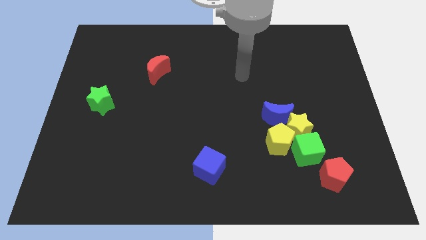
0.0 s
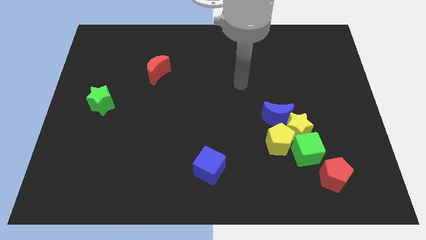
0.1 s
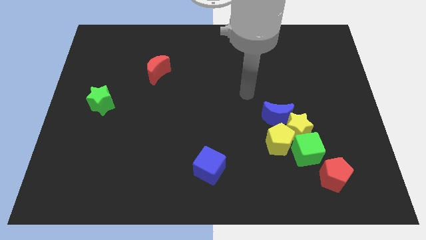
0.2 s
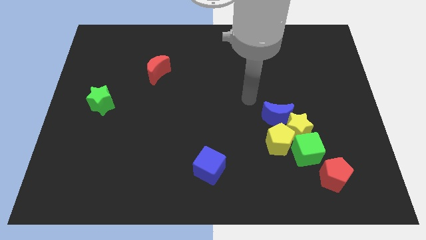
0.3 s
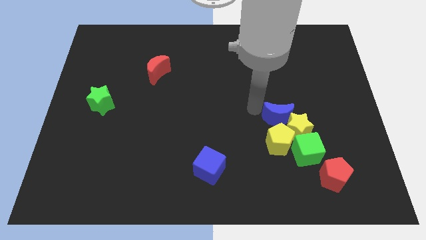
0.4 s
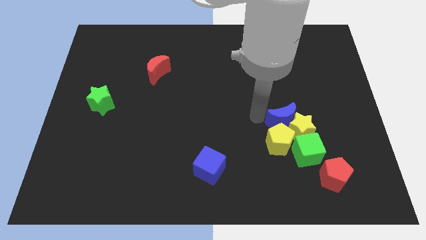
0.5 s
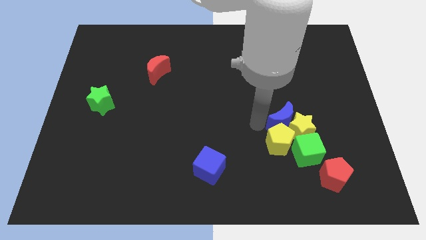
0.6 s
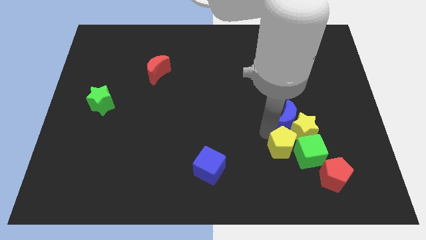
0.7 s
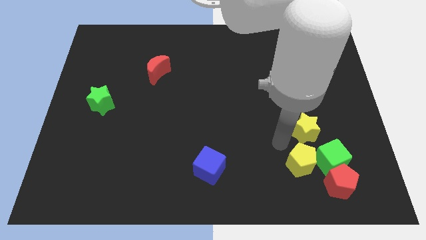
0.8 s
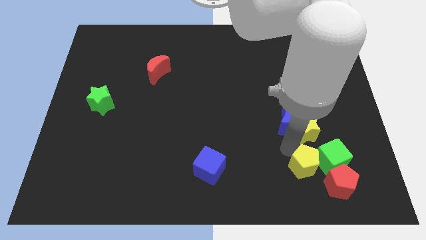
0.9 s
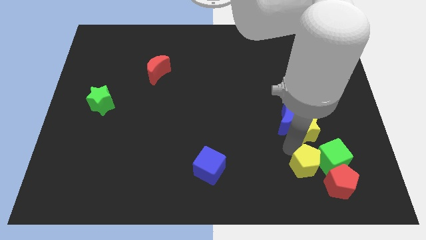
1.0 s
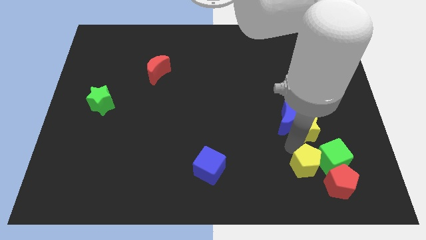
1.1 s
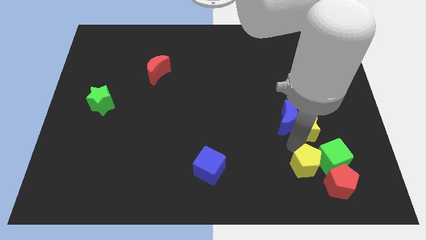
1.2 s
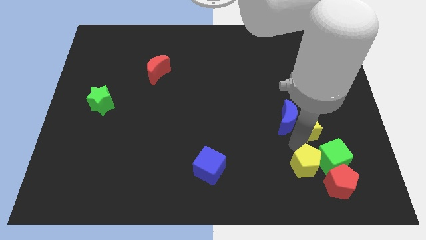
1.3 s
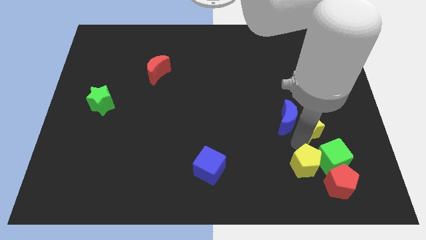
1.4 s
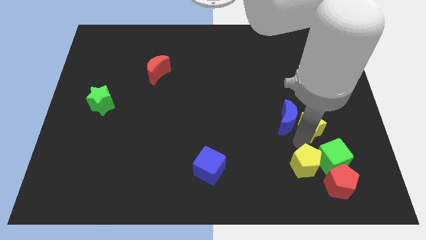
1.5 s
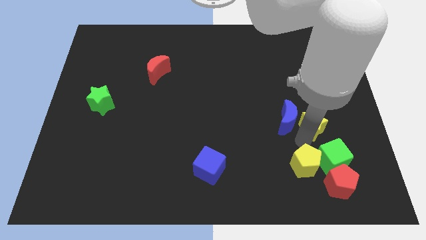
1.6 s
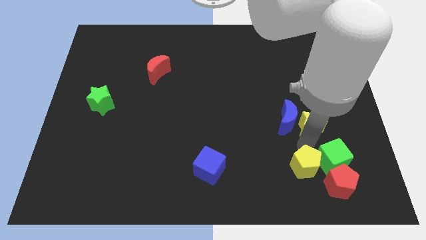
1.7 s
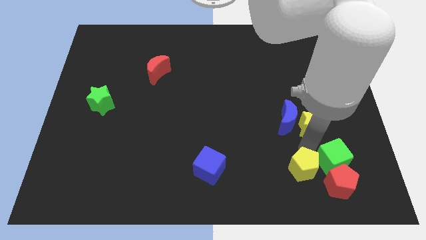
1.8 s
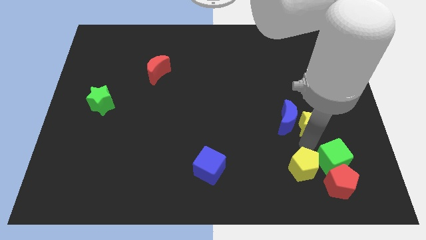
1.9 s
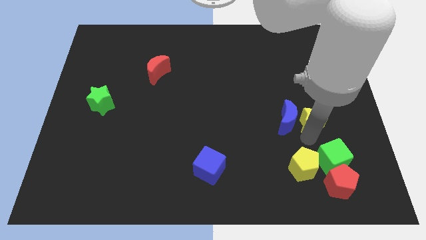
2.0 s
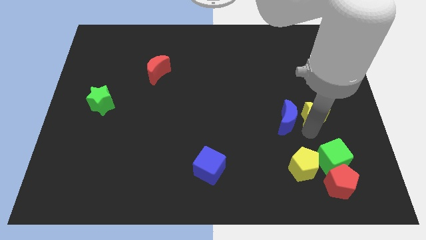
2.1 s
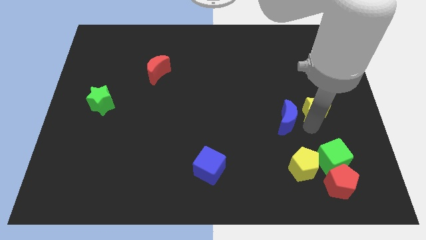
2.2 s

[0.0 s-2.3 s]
pull the yellow star apart from the group of blocks

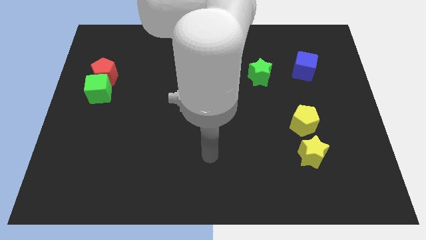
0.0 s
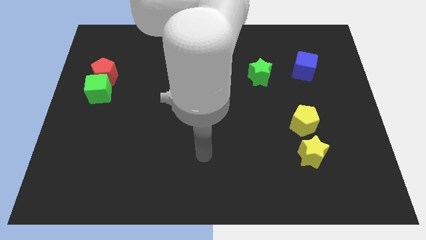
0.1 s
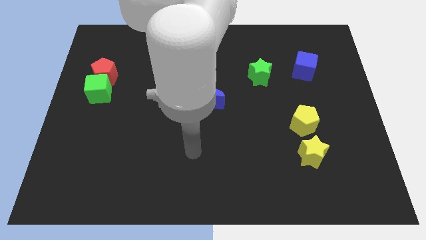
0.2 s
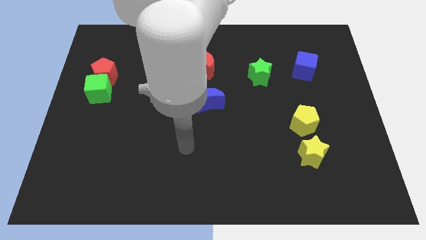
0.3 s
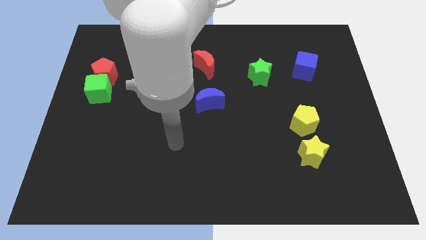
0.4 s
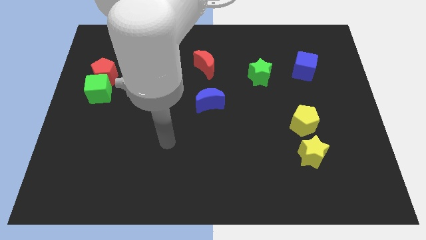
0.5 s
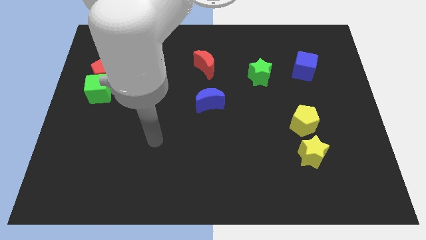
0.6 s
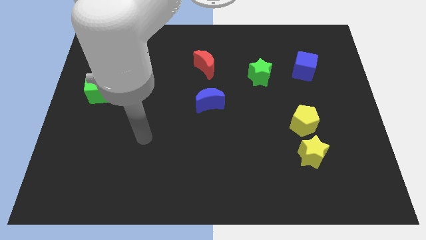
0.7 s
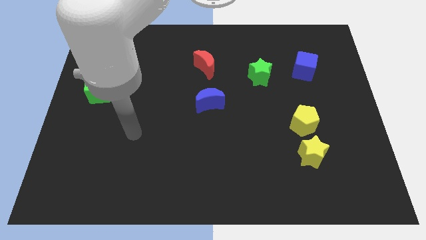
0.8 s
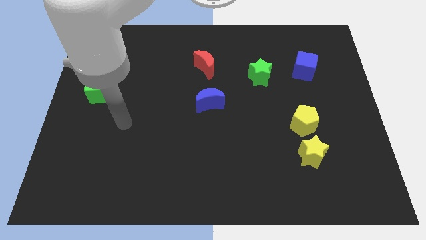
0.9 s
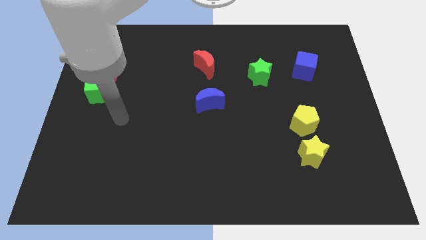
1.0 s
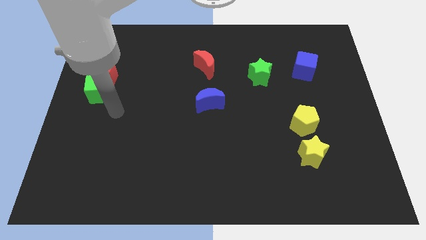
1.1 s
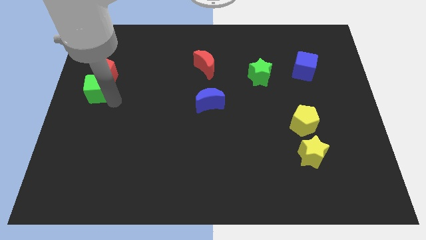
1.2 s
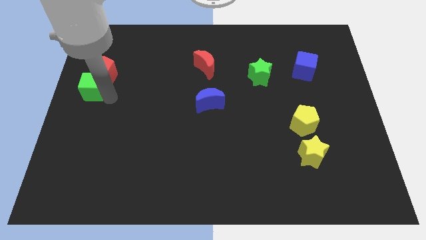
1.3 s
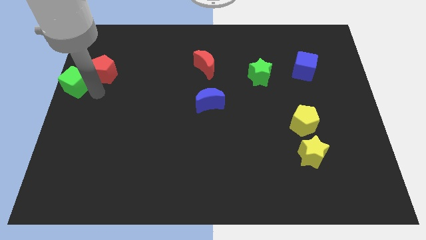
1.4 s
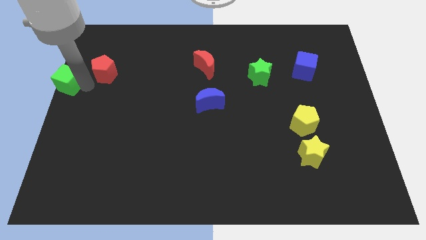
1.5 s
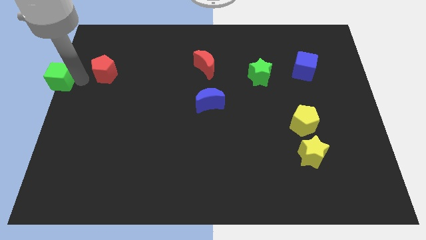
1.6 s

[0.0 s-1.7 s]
pull the red pentagon apart from the green cube

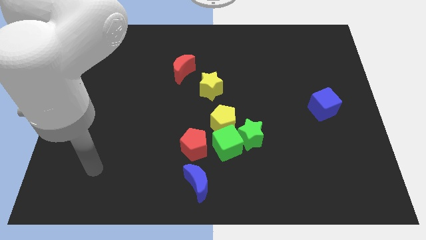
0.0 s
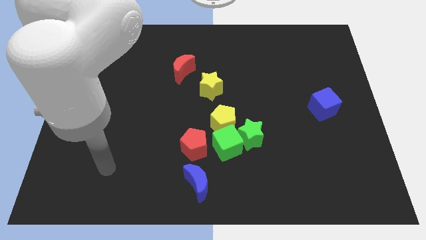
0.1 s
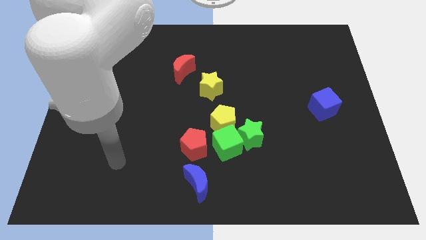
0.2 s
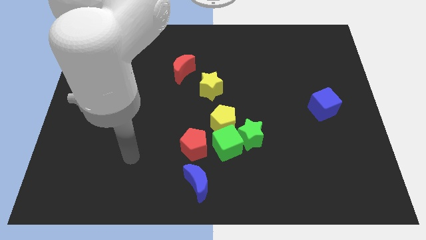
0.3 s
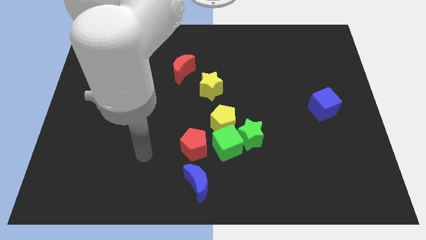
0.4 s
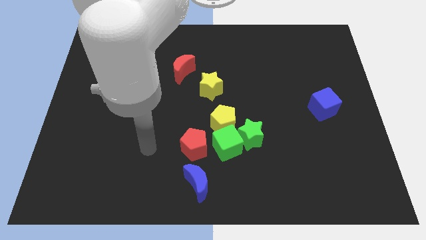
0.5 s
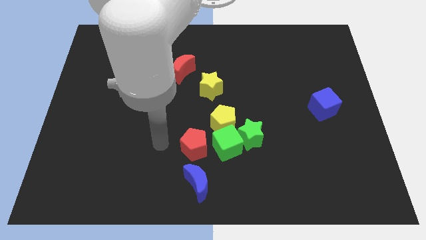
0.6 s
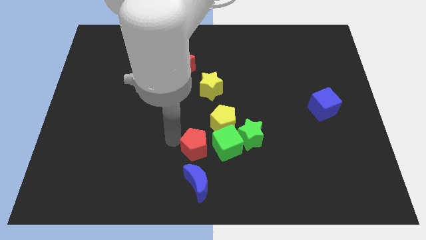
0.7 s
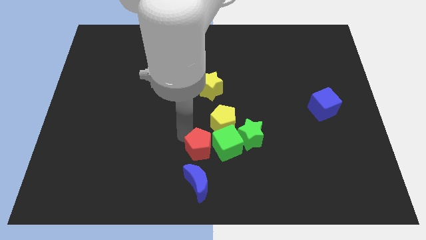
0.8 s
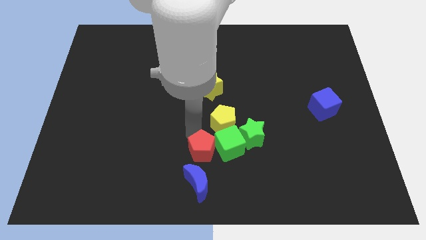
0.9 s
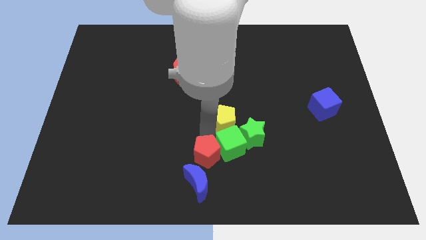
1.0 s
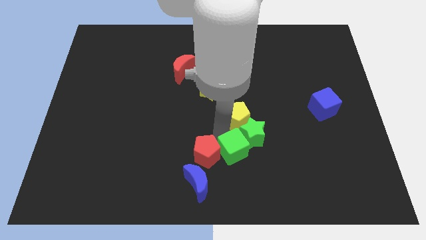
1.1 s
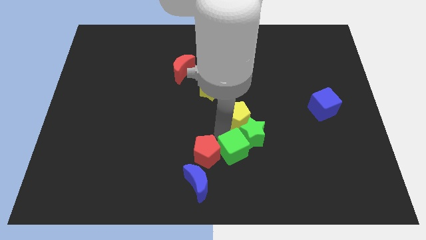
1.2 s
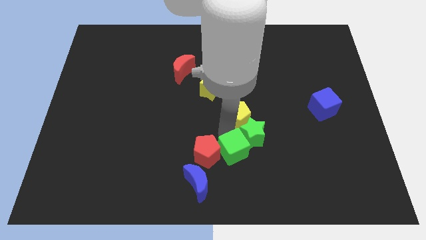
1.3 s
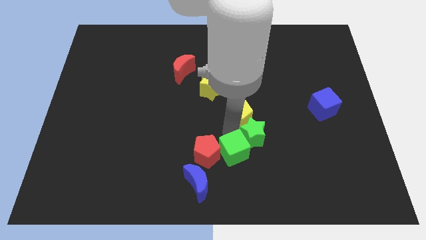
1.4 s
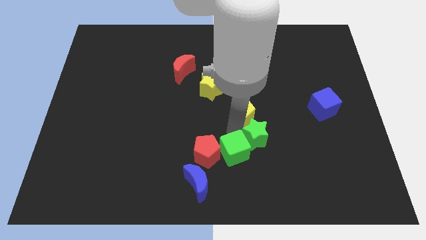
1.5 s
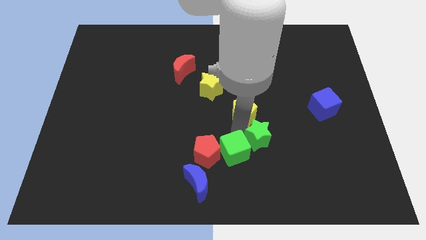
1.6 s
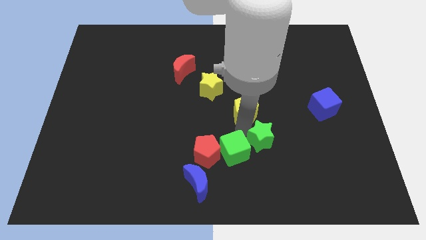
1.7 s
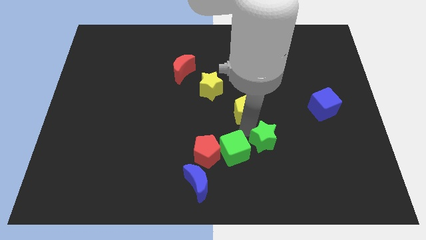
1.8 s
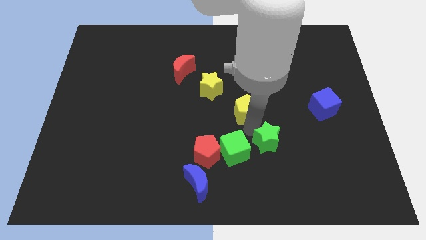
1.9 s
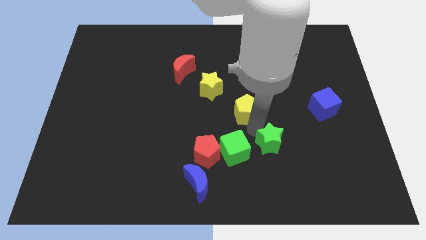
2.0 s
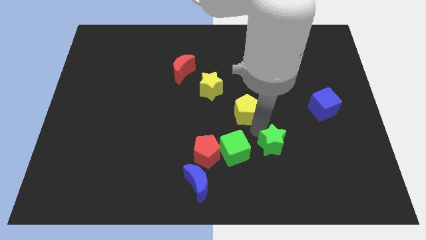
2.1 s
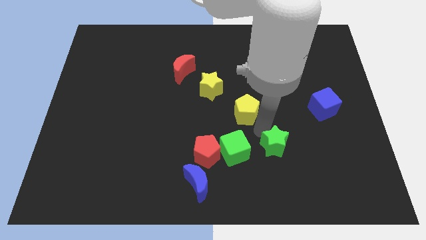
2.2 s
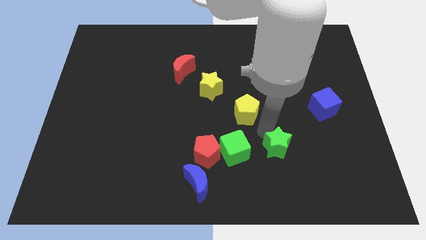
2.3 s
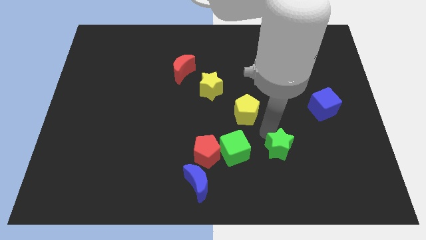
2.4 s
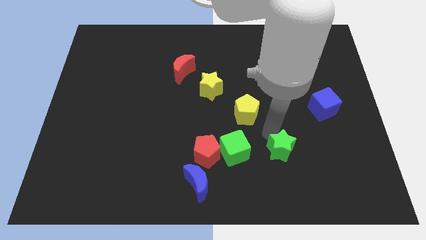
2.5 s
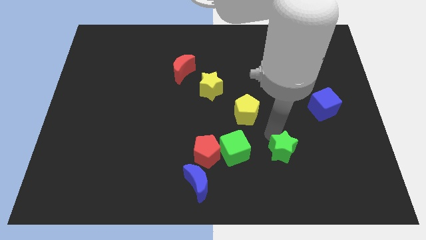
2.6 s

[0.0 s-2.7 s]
pull the green star apart from the green cube and yellow pentagon

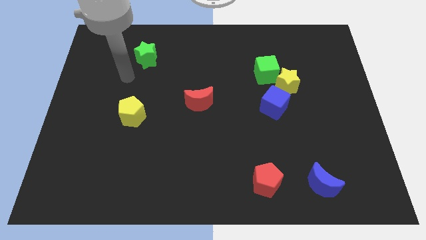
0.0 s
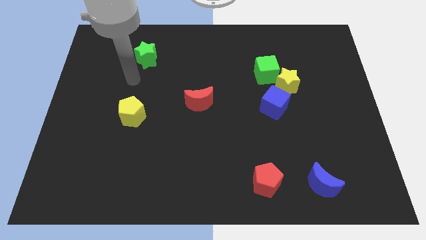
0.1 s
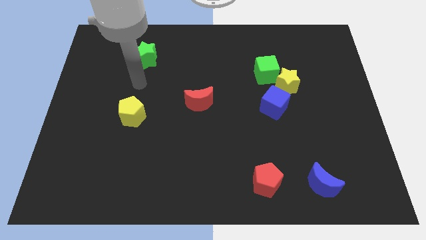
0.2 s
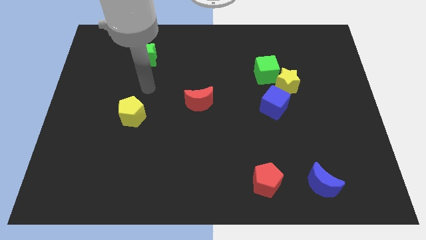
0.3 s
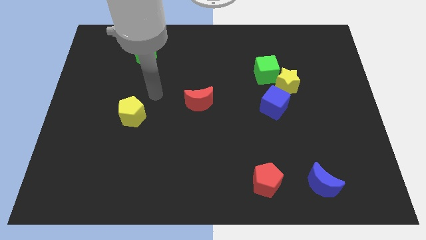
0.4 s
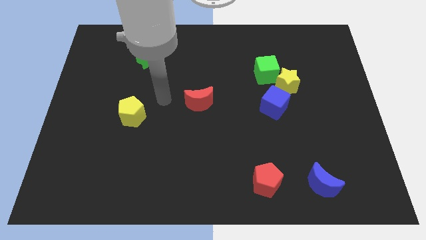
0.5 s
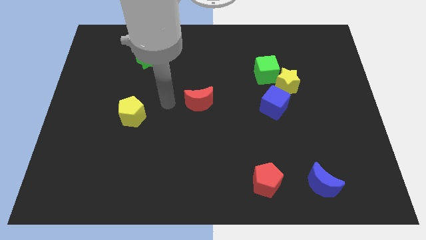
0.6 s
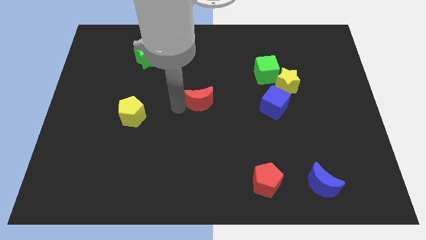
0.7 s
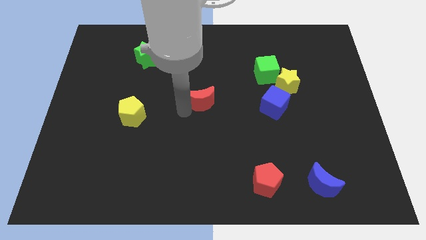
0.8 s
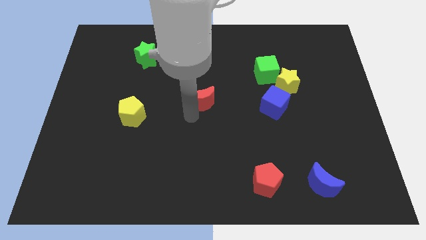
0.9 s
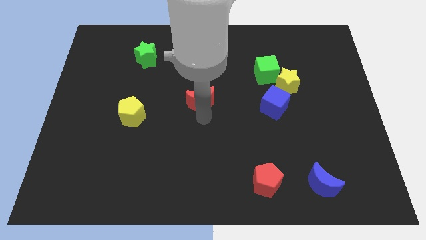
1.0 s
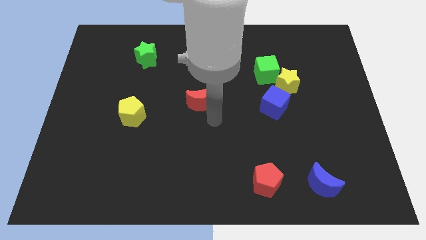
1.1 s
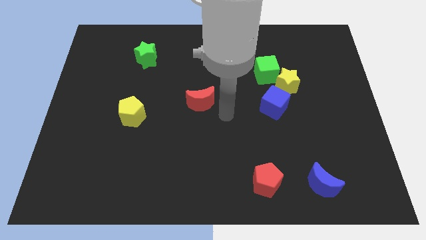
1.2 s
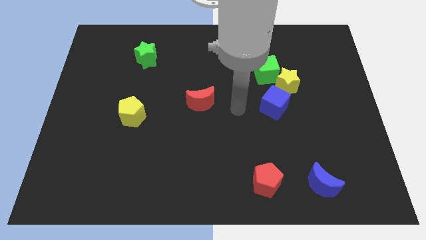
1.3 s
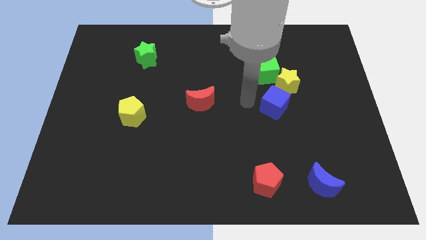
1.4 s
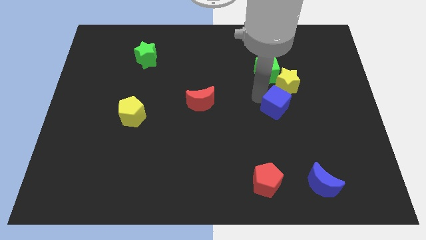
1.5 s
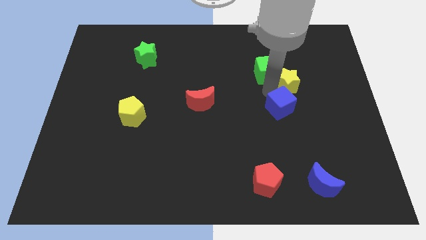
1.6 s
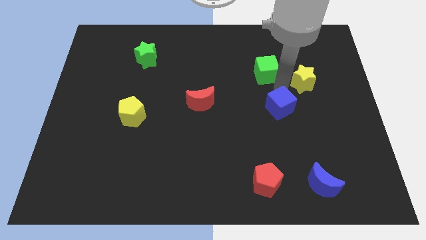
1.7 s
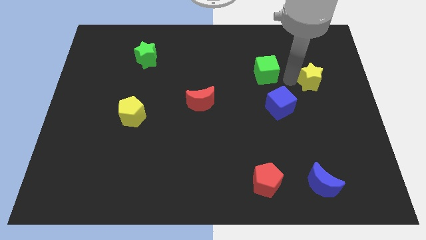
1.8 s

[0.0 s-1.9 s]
move the green cube away from the yellow star

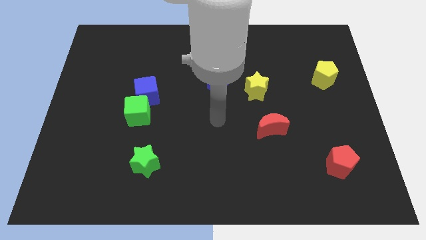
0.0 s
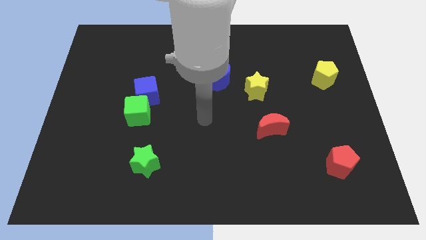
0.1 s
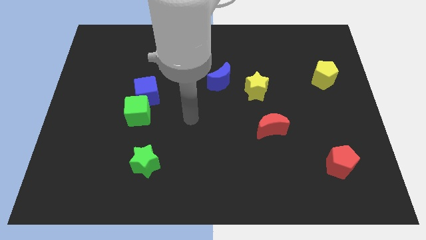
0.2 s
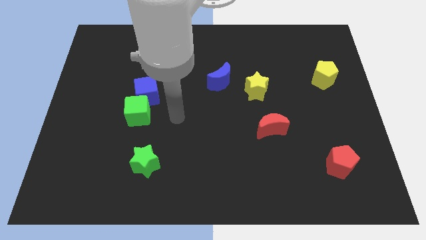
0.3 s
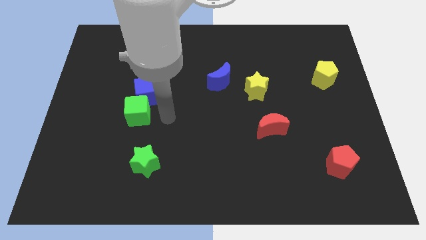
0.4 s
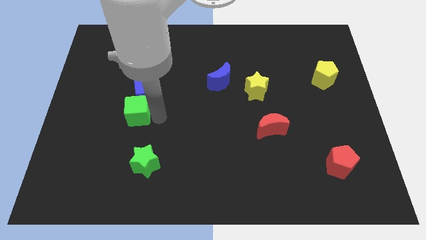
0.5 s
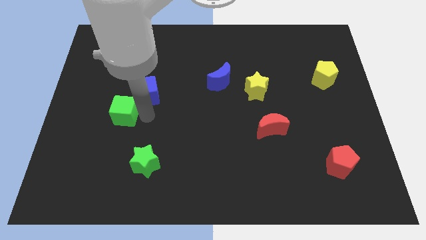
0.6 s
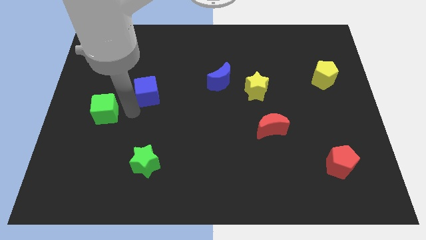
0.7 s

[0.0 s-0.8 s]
pull the blue cube apart from the green cube

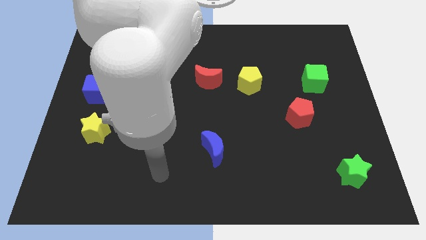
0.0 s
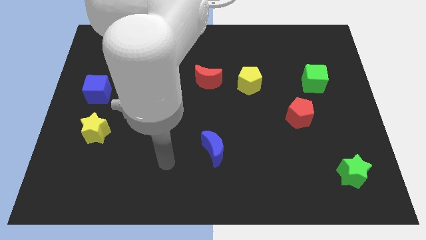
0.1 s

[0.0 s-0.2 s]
separate the red moon from the yellow pentagon
